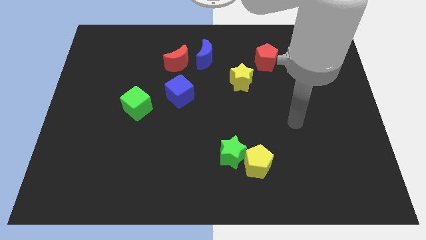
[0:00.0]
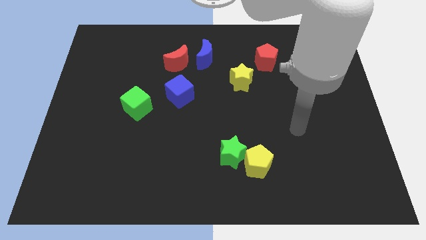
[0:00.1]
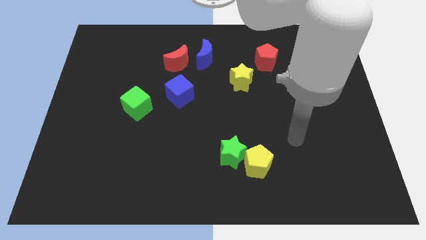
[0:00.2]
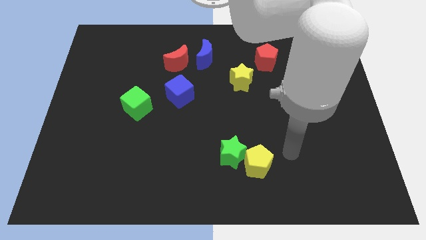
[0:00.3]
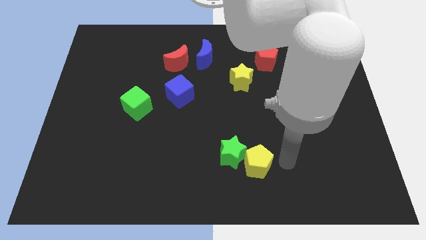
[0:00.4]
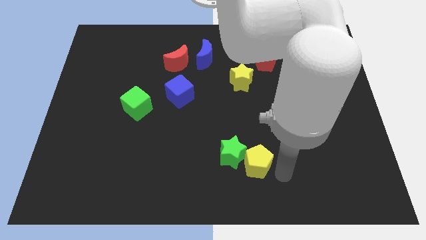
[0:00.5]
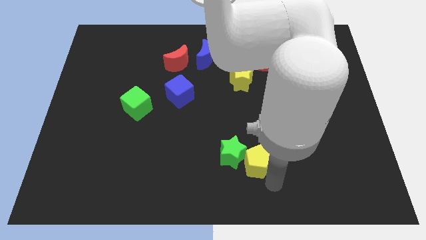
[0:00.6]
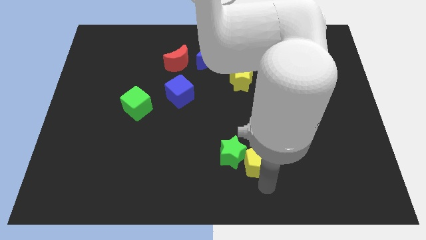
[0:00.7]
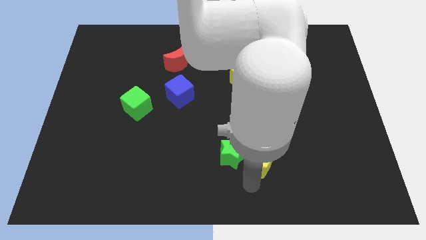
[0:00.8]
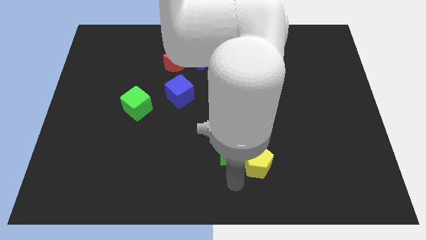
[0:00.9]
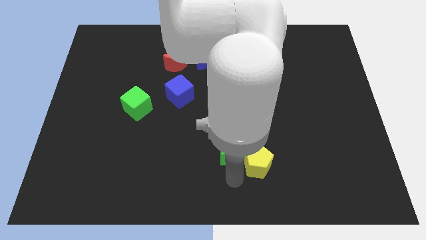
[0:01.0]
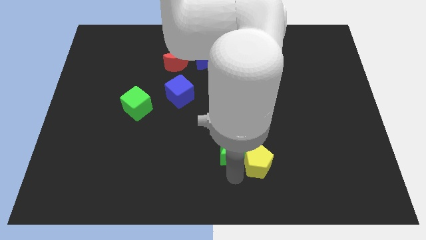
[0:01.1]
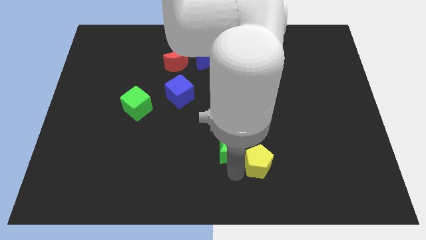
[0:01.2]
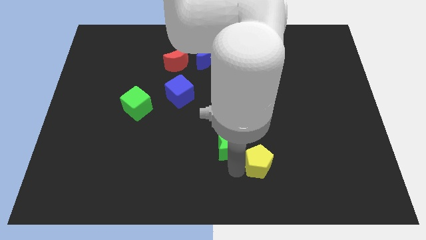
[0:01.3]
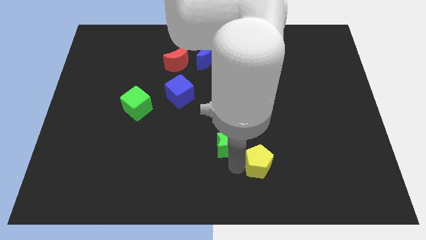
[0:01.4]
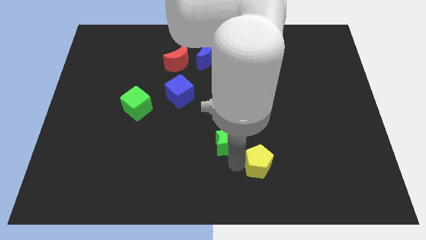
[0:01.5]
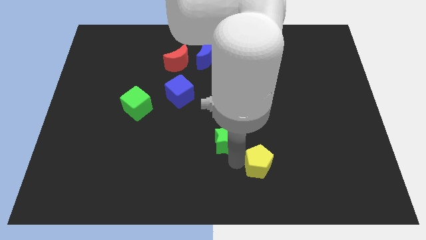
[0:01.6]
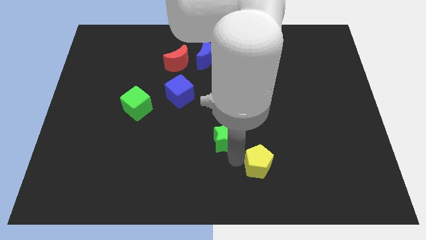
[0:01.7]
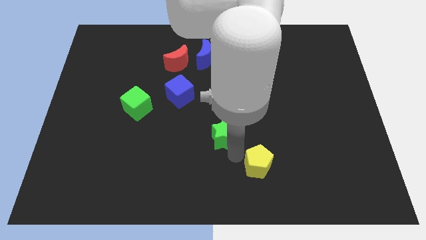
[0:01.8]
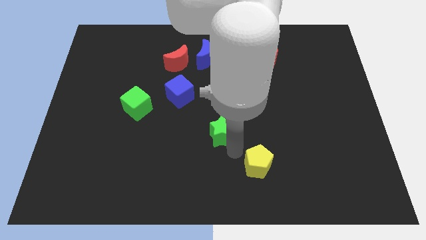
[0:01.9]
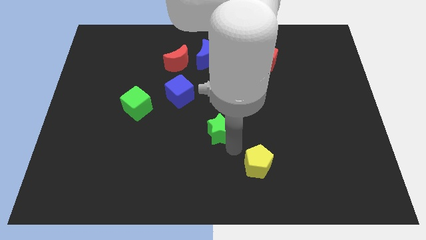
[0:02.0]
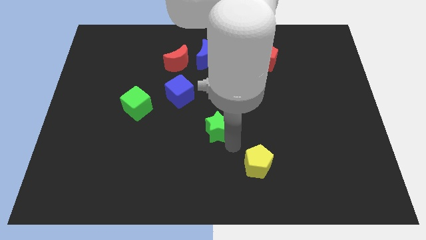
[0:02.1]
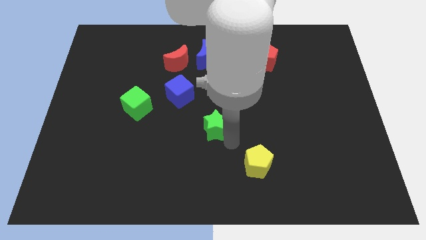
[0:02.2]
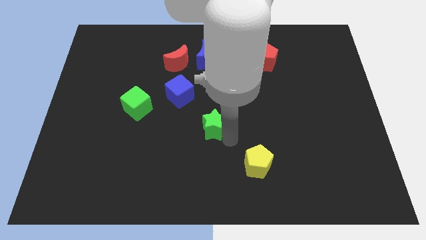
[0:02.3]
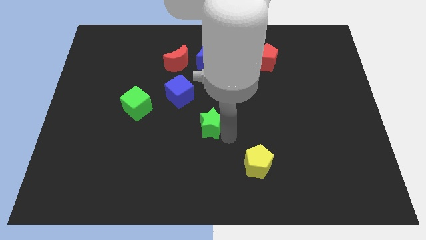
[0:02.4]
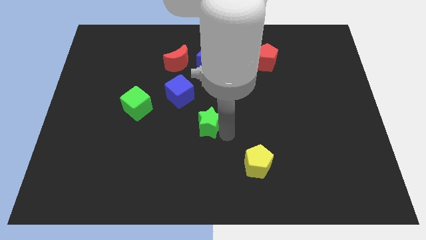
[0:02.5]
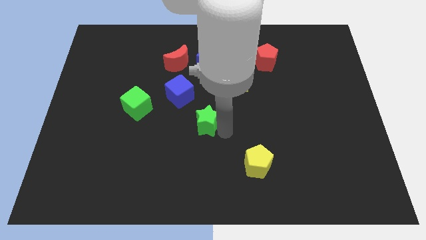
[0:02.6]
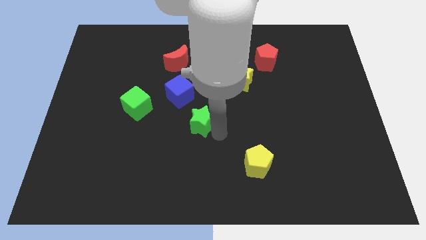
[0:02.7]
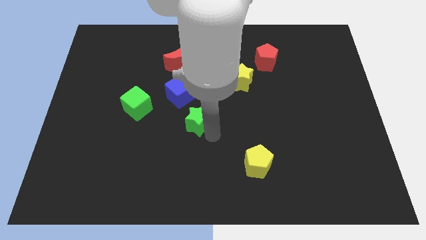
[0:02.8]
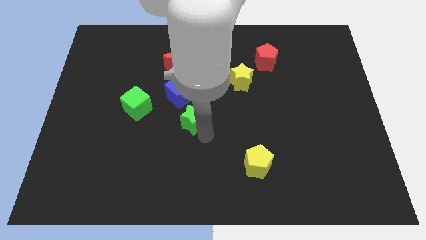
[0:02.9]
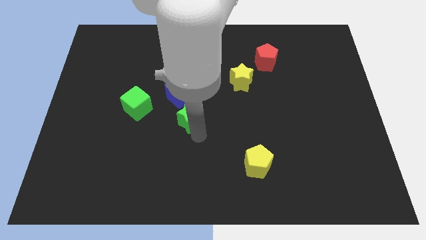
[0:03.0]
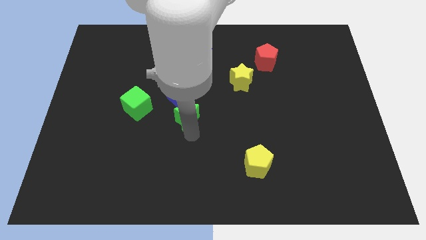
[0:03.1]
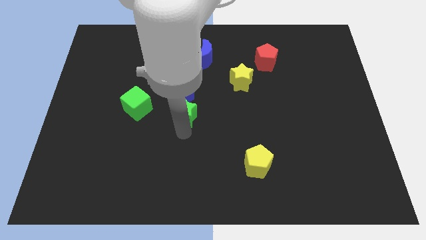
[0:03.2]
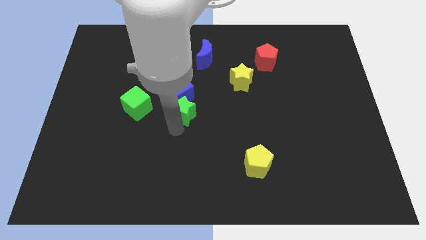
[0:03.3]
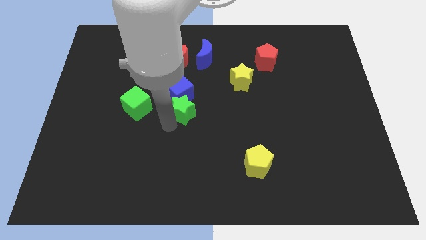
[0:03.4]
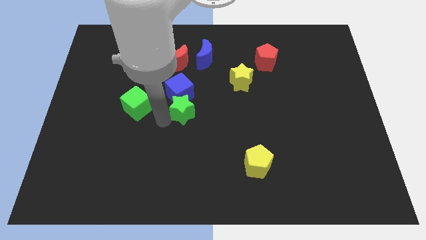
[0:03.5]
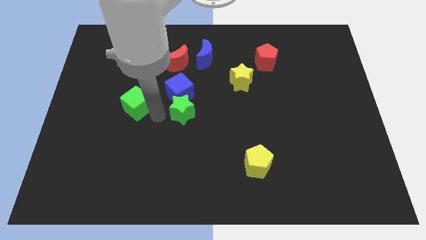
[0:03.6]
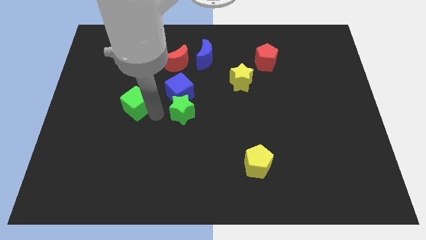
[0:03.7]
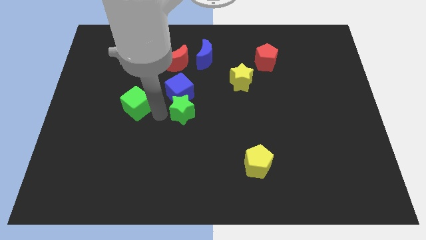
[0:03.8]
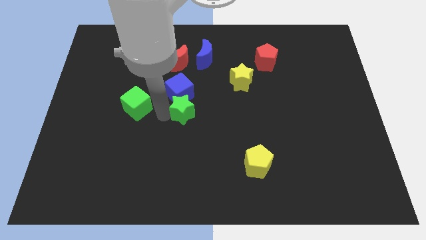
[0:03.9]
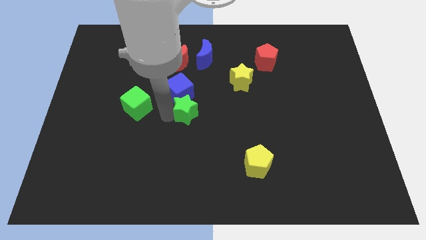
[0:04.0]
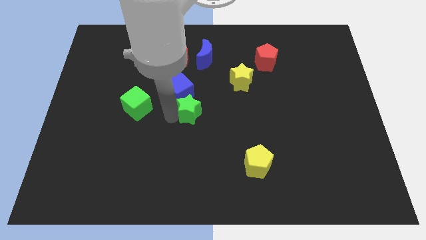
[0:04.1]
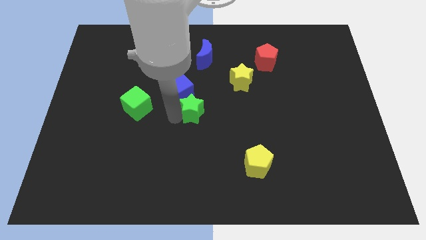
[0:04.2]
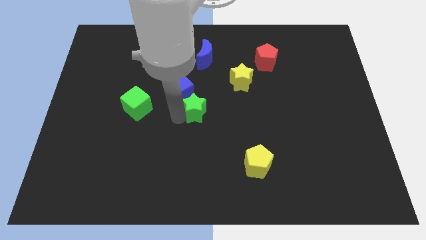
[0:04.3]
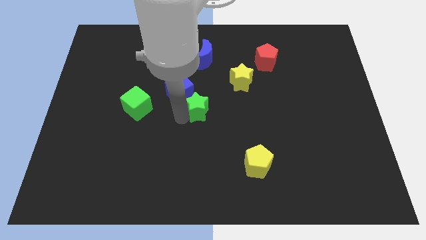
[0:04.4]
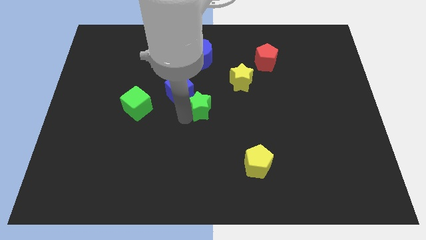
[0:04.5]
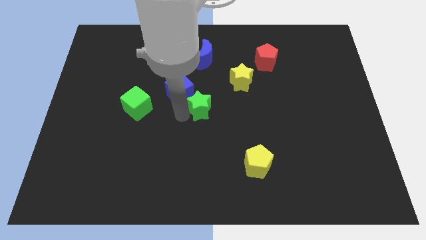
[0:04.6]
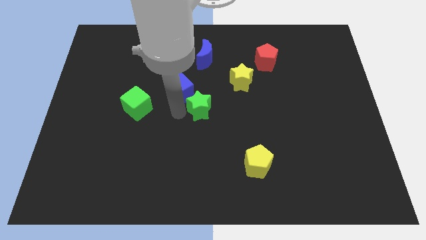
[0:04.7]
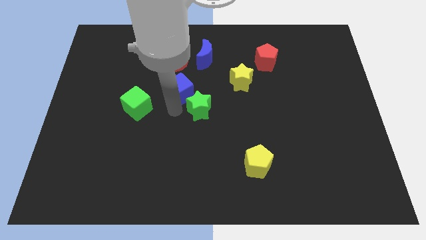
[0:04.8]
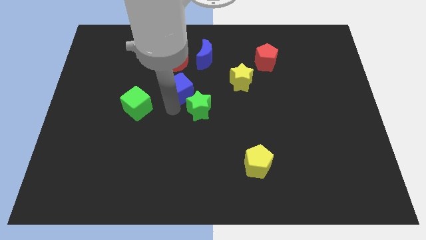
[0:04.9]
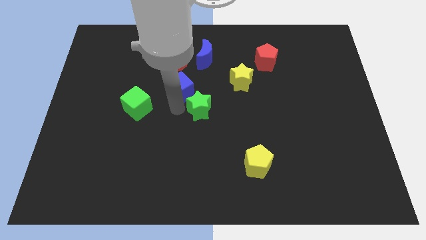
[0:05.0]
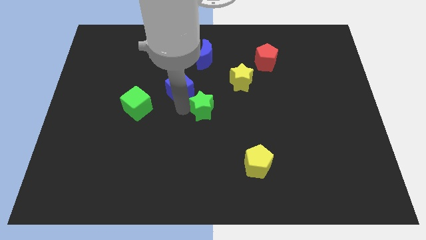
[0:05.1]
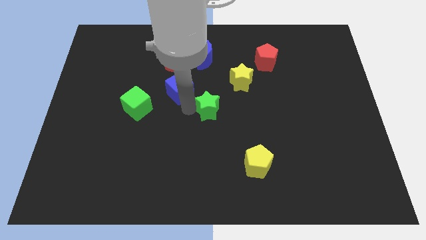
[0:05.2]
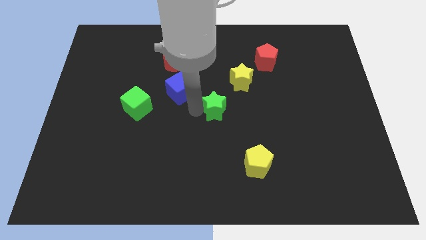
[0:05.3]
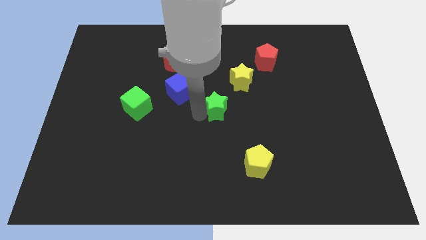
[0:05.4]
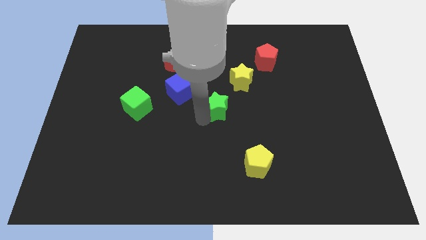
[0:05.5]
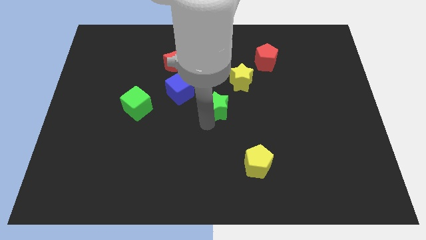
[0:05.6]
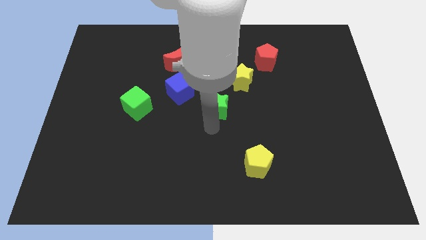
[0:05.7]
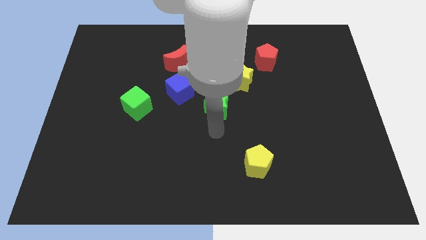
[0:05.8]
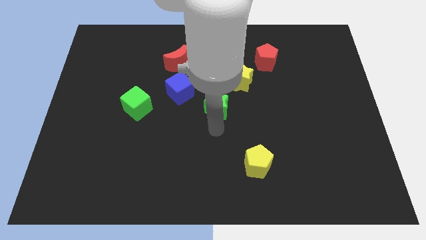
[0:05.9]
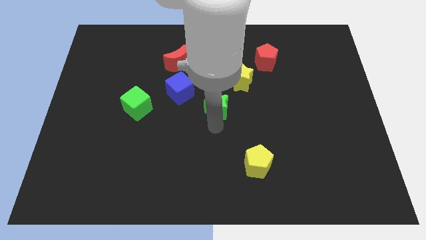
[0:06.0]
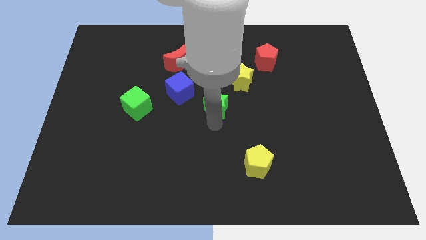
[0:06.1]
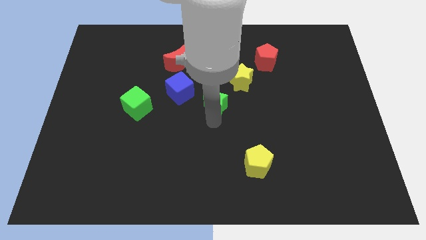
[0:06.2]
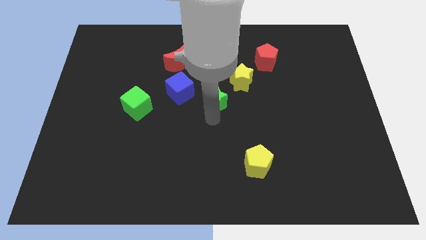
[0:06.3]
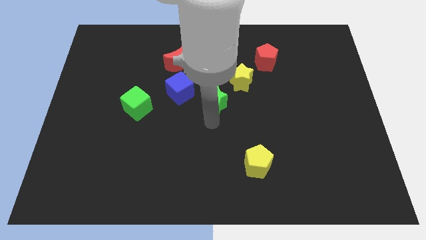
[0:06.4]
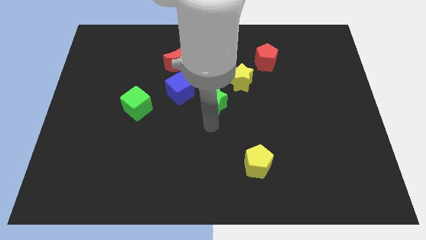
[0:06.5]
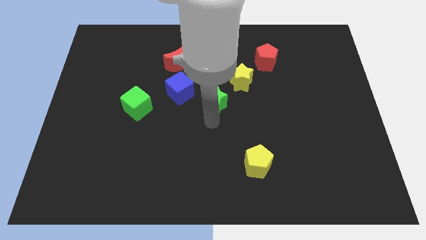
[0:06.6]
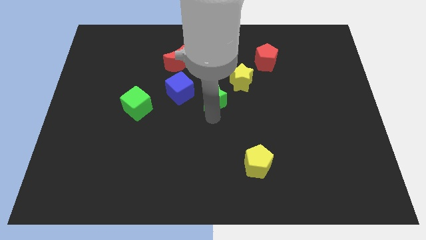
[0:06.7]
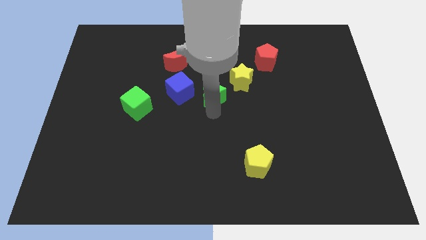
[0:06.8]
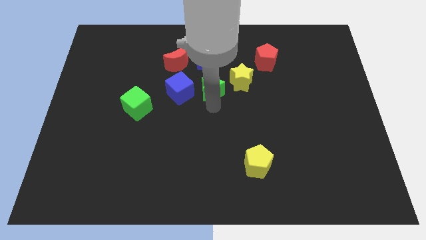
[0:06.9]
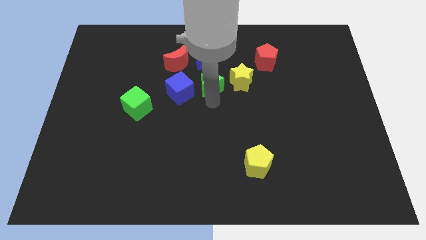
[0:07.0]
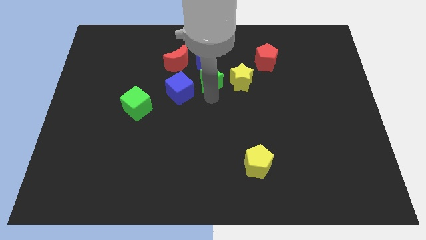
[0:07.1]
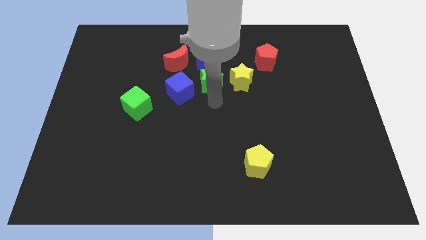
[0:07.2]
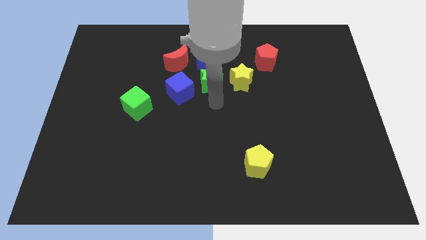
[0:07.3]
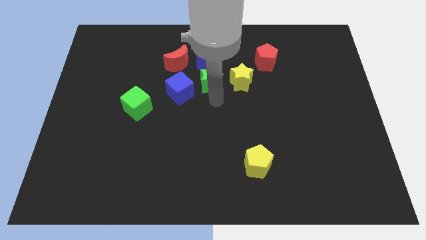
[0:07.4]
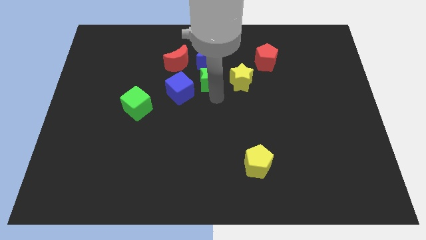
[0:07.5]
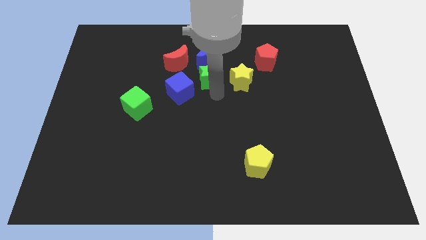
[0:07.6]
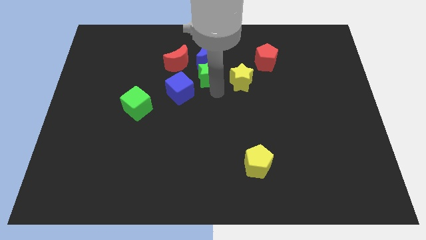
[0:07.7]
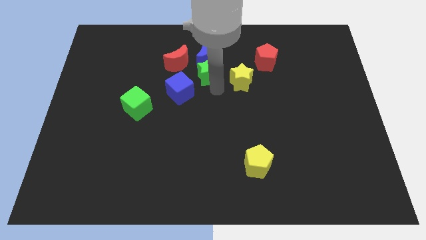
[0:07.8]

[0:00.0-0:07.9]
slide the green star to the blue moon
